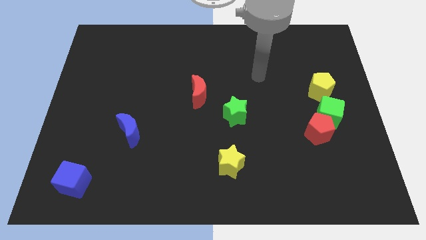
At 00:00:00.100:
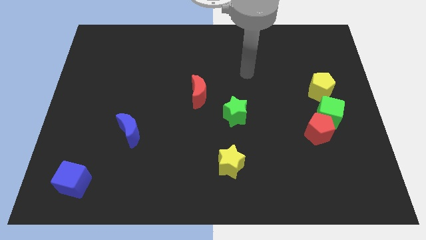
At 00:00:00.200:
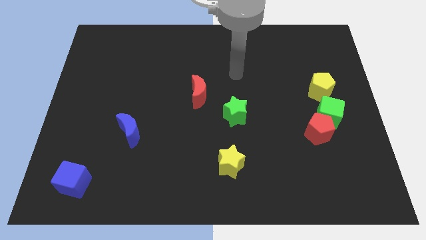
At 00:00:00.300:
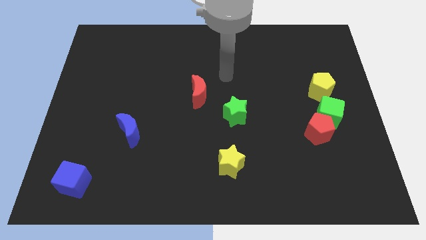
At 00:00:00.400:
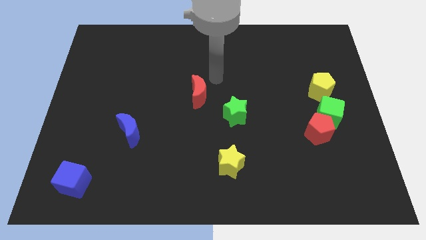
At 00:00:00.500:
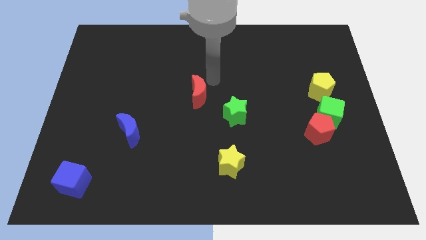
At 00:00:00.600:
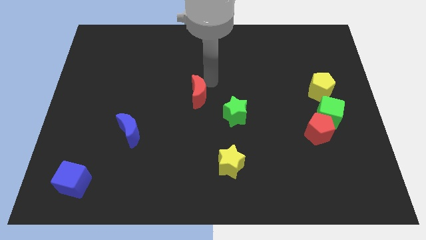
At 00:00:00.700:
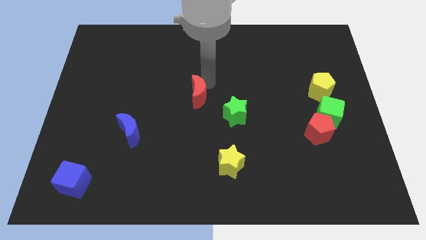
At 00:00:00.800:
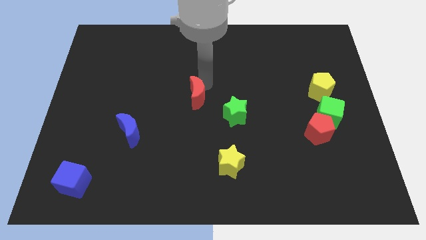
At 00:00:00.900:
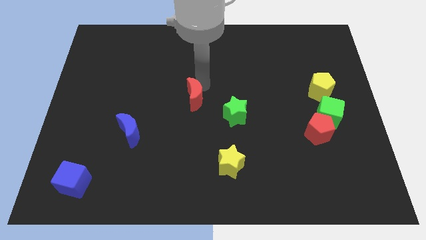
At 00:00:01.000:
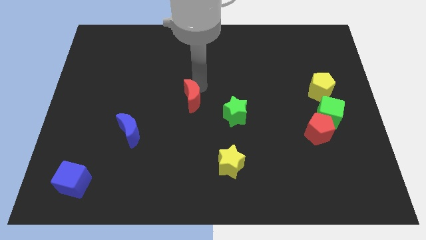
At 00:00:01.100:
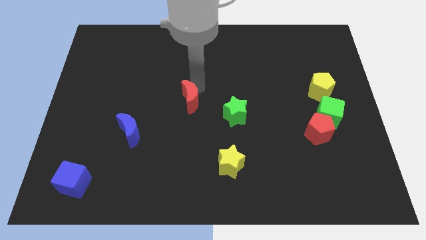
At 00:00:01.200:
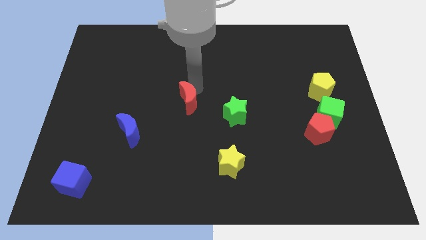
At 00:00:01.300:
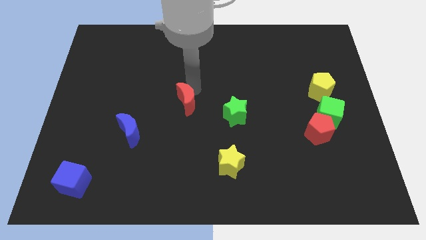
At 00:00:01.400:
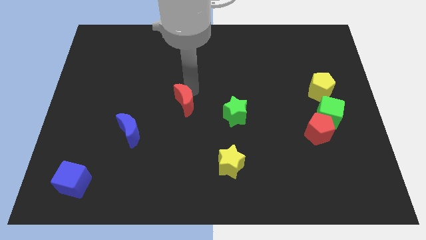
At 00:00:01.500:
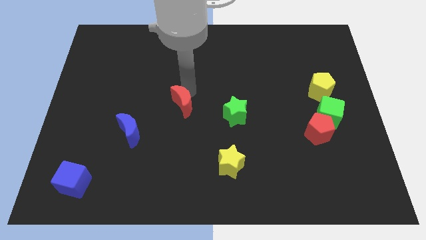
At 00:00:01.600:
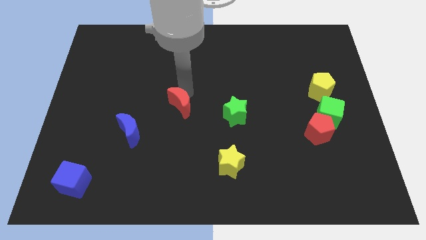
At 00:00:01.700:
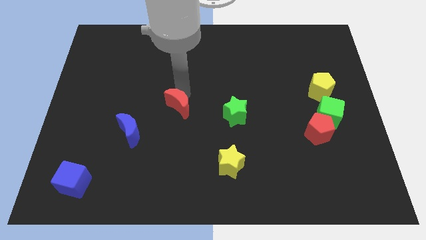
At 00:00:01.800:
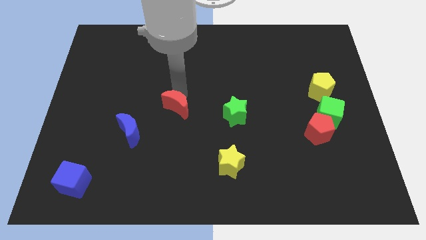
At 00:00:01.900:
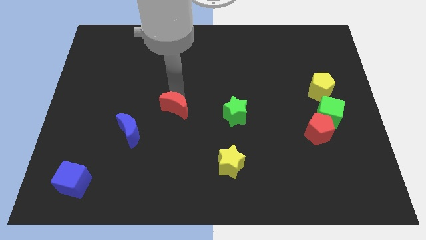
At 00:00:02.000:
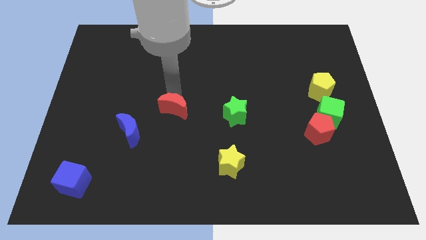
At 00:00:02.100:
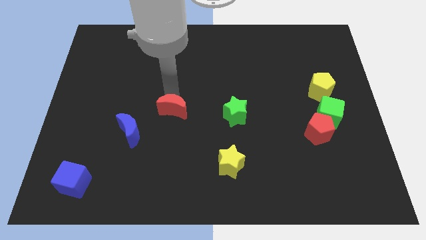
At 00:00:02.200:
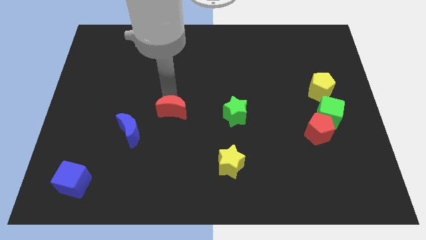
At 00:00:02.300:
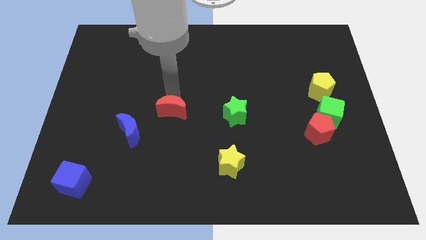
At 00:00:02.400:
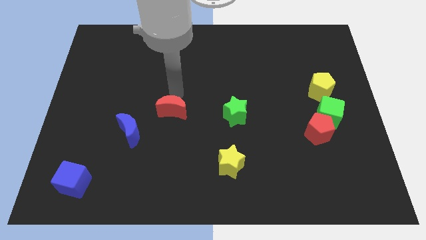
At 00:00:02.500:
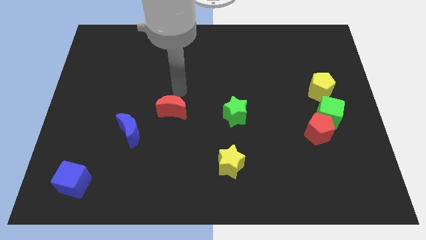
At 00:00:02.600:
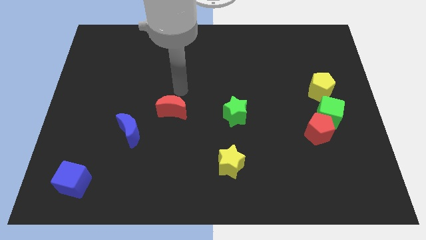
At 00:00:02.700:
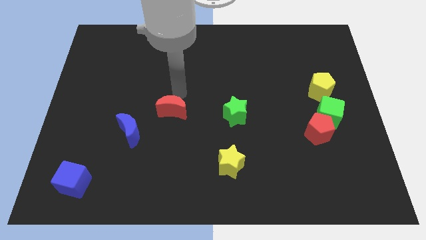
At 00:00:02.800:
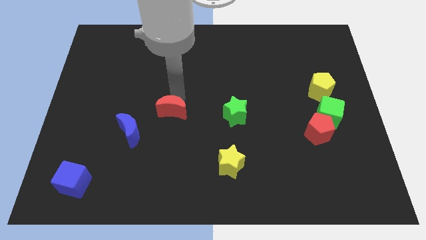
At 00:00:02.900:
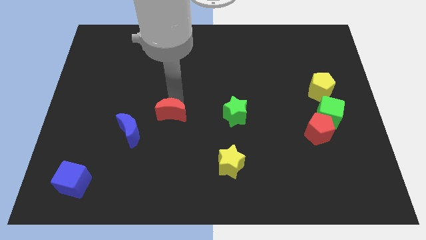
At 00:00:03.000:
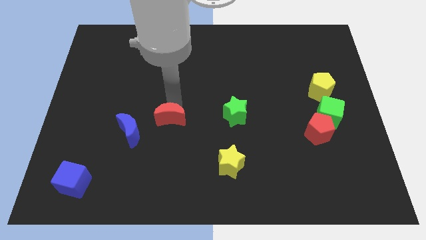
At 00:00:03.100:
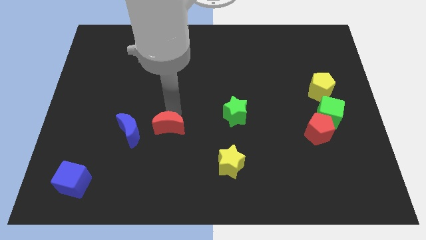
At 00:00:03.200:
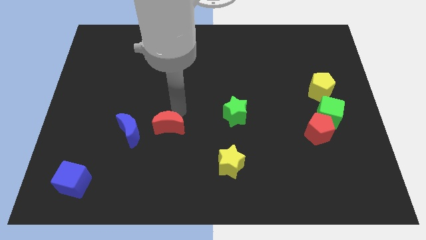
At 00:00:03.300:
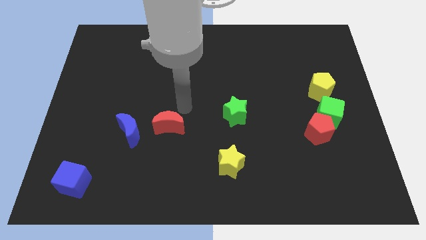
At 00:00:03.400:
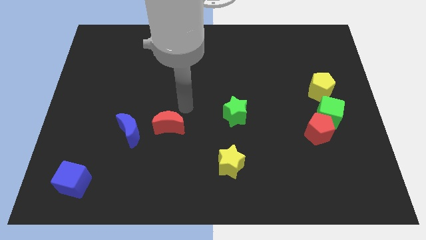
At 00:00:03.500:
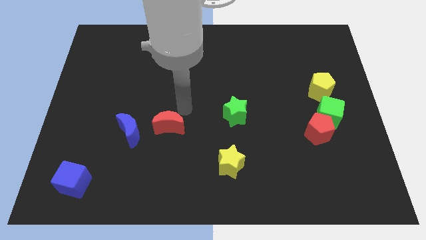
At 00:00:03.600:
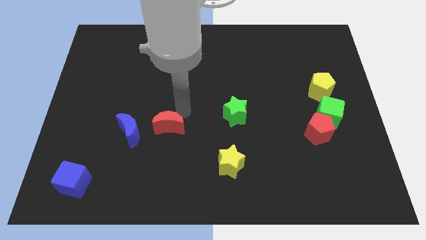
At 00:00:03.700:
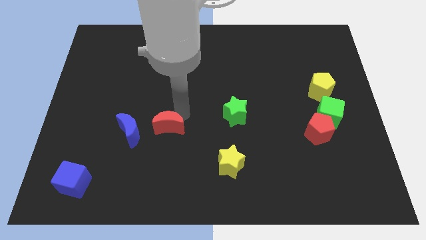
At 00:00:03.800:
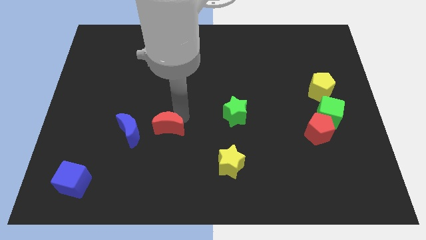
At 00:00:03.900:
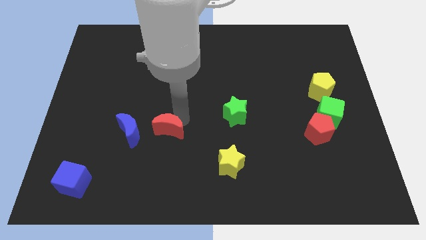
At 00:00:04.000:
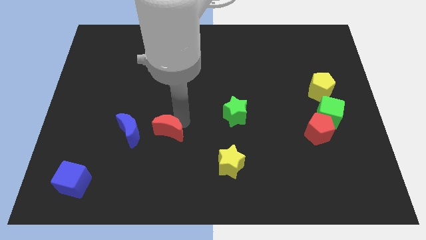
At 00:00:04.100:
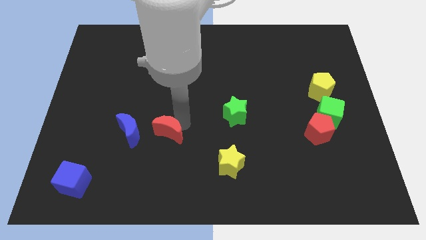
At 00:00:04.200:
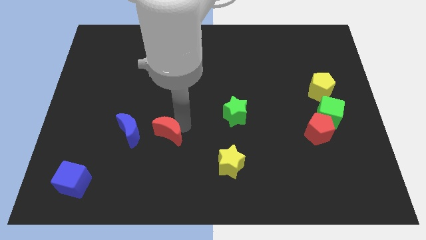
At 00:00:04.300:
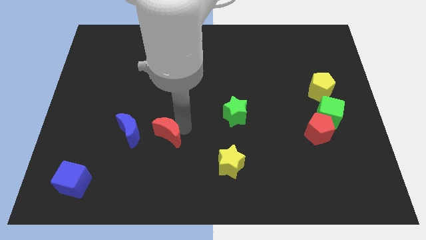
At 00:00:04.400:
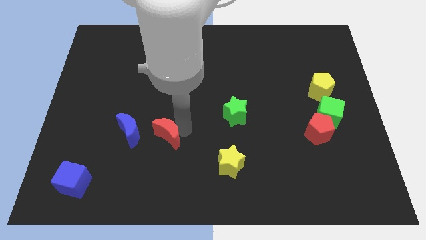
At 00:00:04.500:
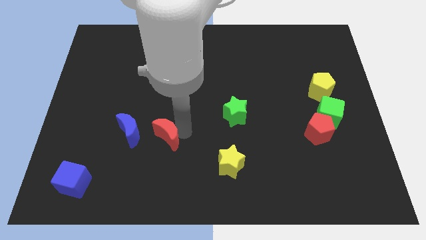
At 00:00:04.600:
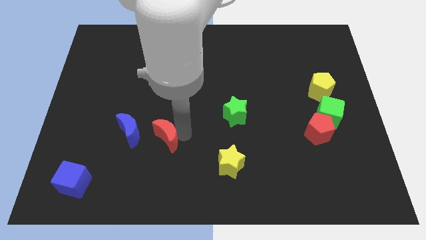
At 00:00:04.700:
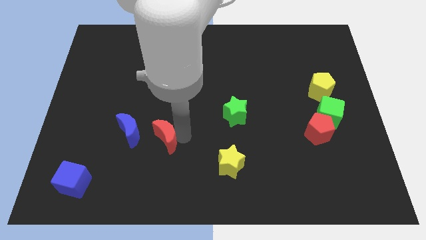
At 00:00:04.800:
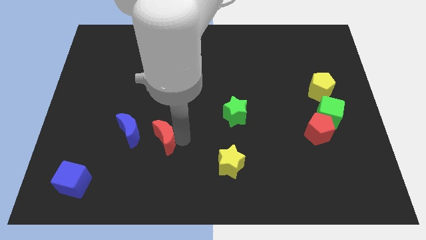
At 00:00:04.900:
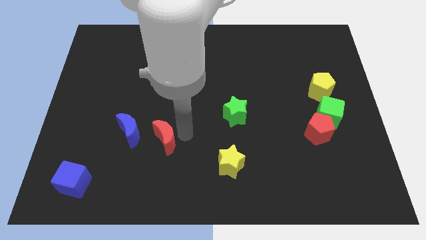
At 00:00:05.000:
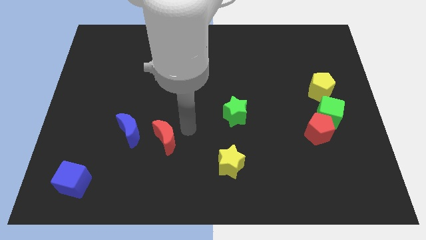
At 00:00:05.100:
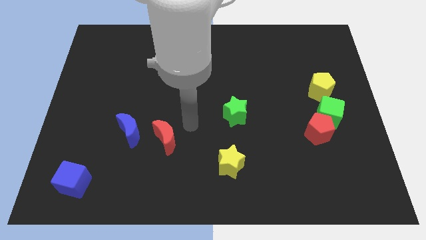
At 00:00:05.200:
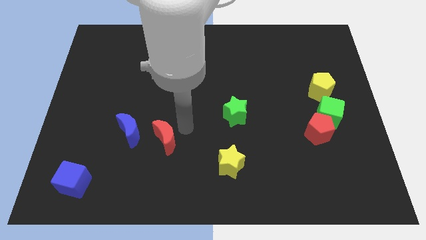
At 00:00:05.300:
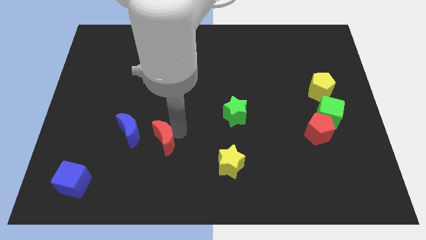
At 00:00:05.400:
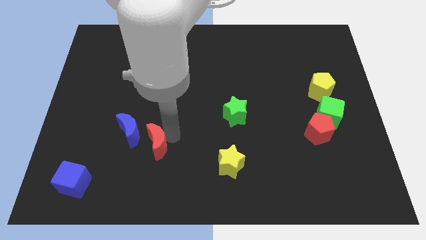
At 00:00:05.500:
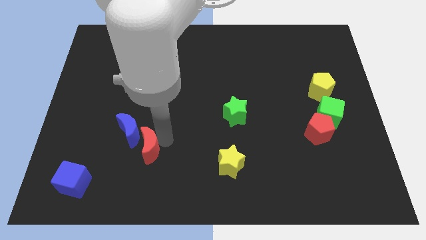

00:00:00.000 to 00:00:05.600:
move the red moon to the bottom side of the blue moon
